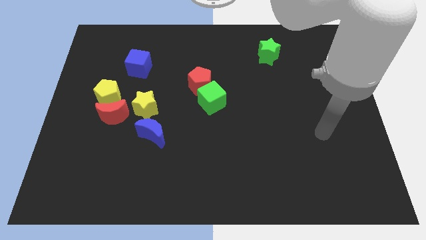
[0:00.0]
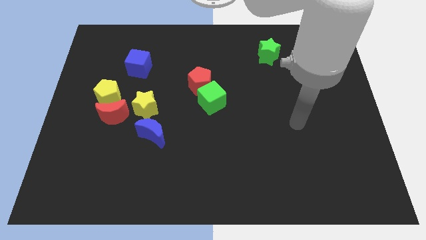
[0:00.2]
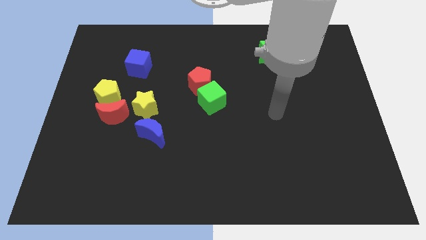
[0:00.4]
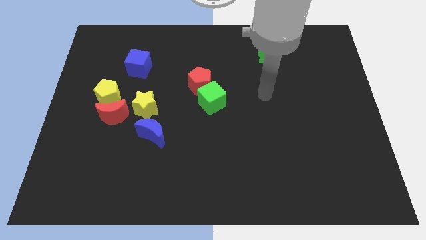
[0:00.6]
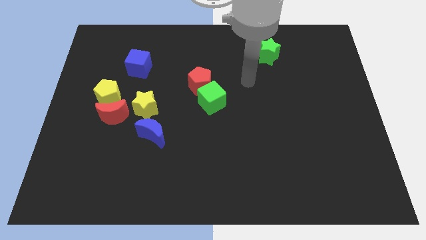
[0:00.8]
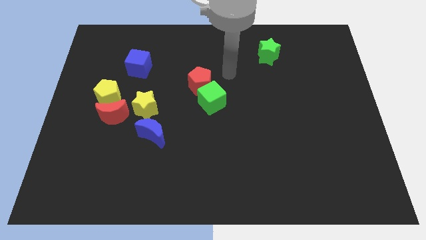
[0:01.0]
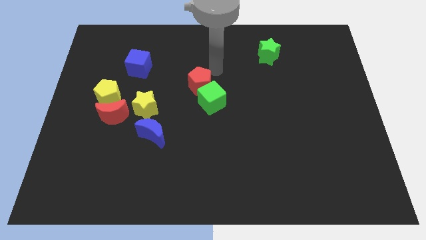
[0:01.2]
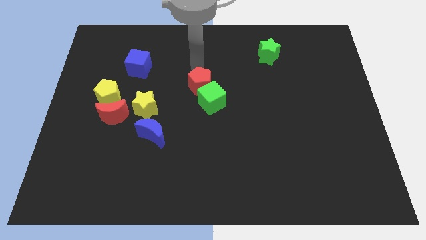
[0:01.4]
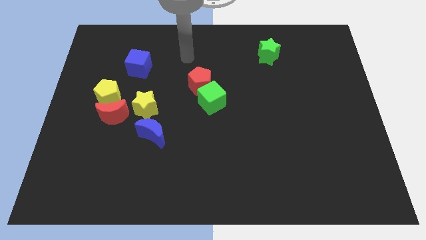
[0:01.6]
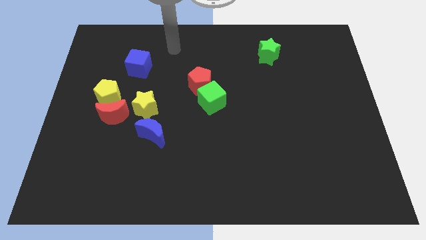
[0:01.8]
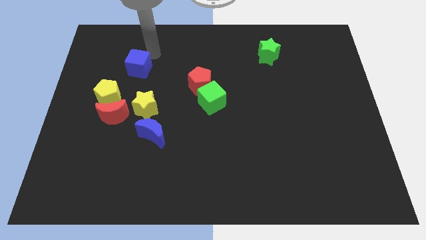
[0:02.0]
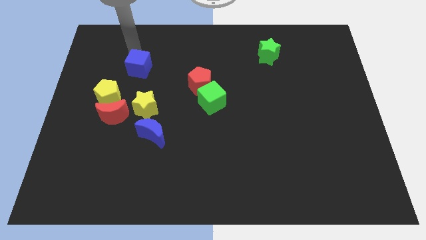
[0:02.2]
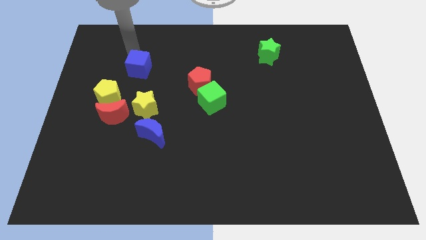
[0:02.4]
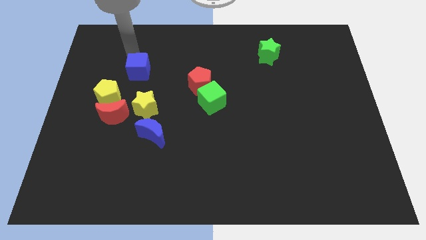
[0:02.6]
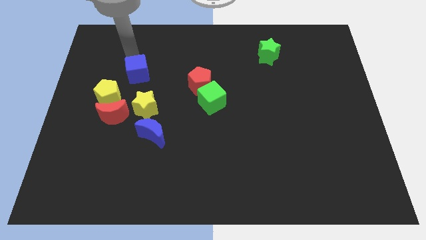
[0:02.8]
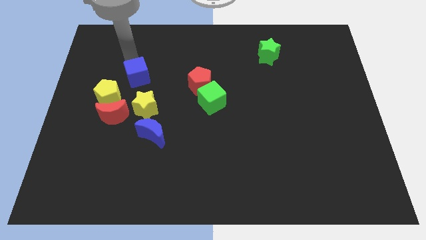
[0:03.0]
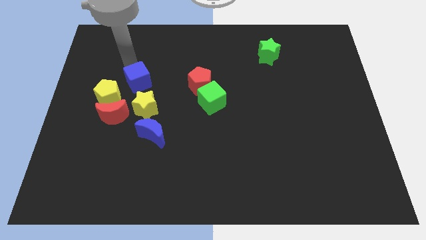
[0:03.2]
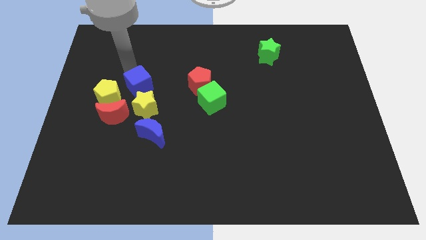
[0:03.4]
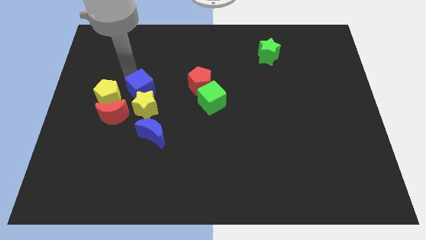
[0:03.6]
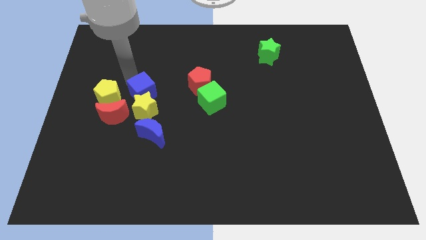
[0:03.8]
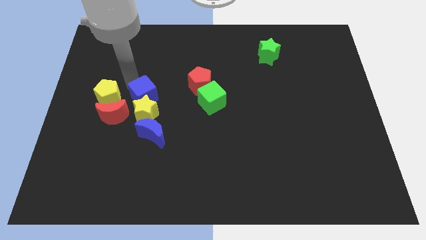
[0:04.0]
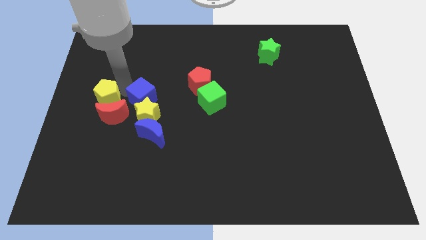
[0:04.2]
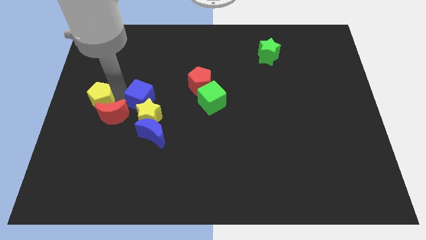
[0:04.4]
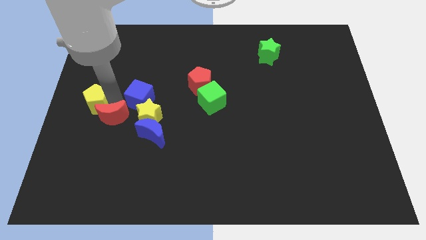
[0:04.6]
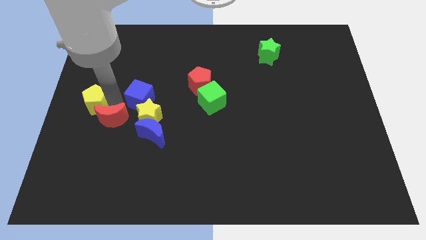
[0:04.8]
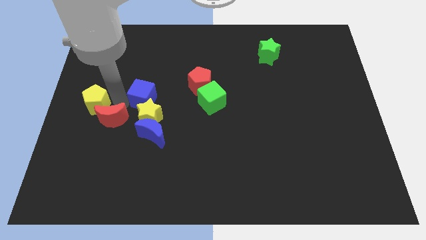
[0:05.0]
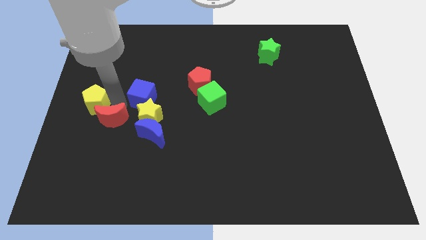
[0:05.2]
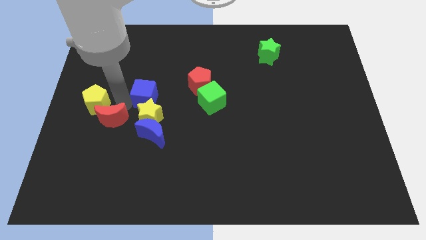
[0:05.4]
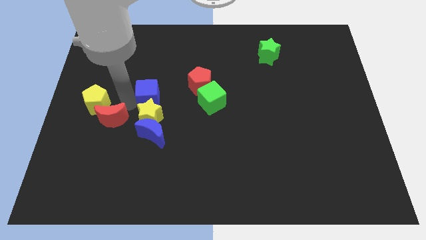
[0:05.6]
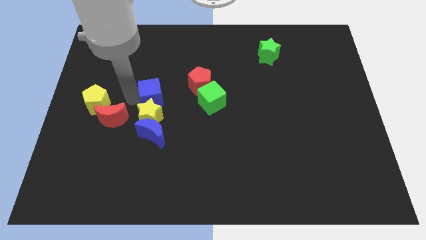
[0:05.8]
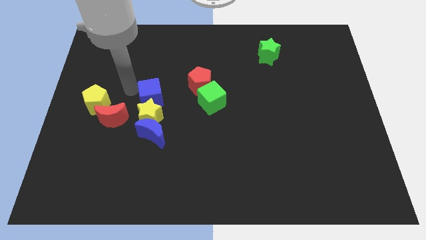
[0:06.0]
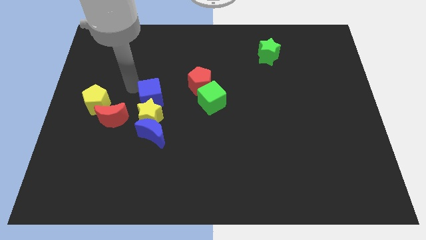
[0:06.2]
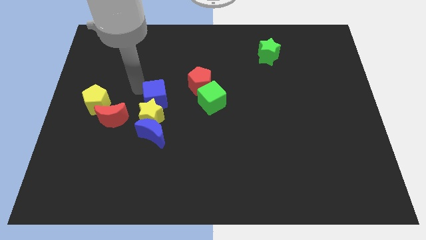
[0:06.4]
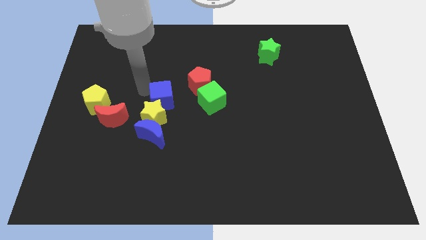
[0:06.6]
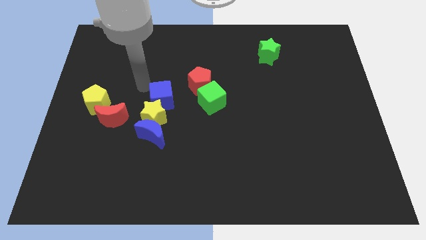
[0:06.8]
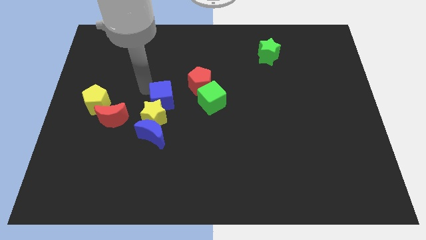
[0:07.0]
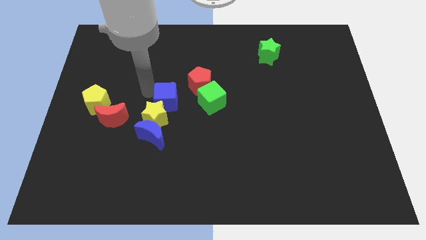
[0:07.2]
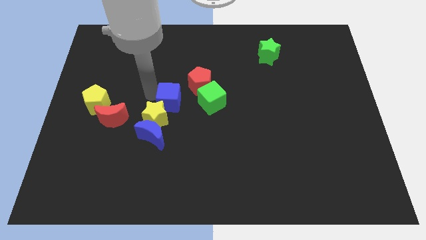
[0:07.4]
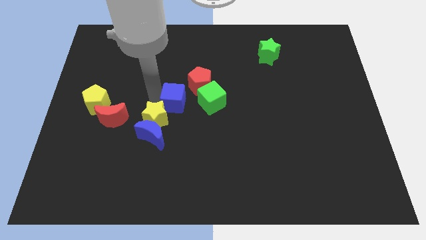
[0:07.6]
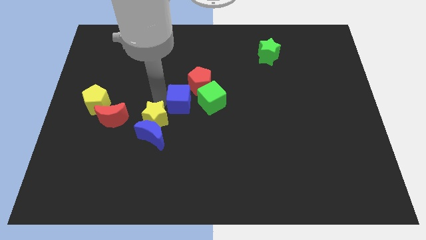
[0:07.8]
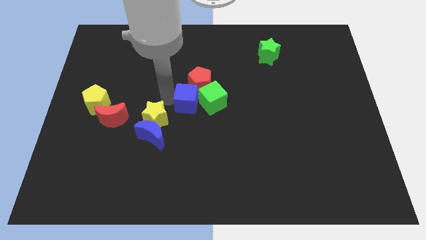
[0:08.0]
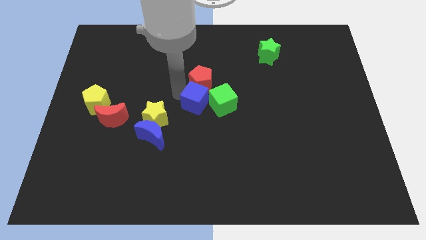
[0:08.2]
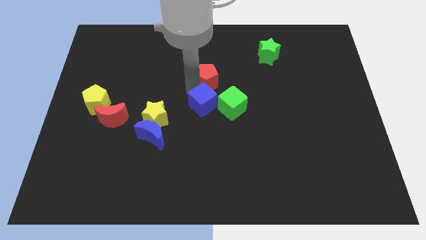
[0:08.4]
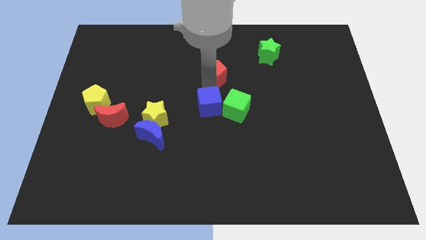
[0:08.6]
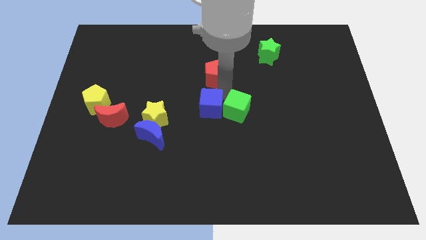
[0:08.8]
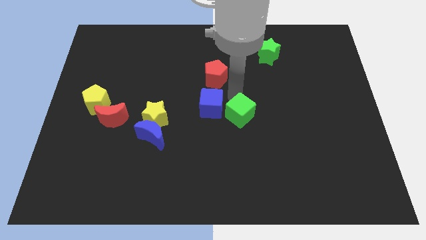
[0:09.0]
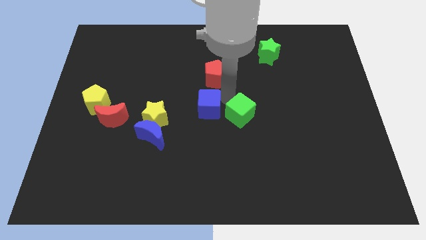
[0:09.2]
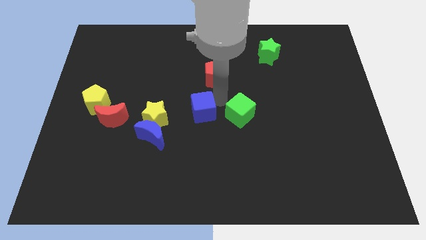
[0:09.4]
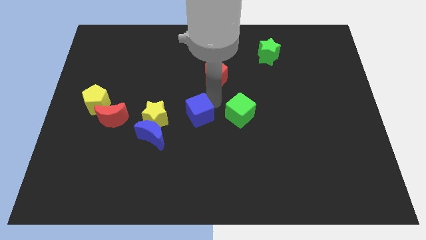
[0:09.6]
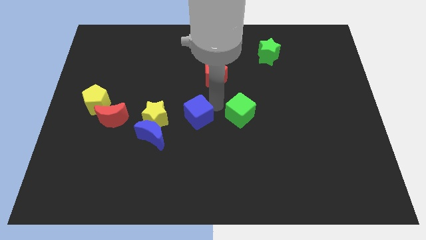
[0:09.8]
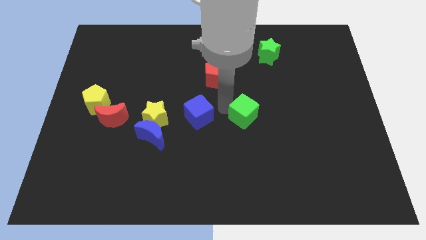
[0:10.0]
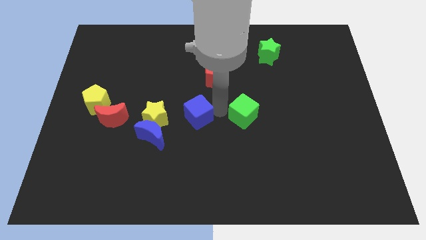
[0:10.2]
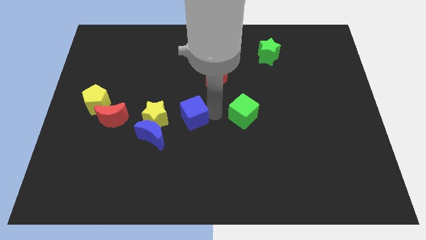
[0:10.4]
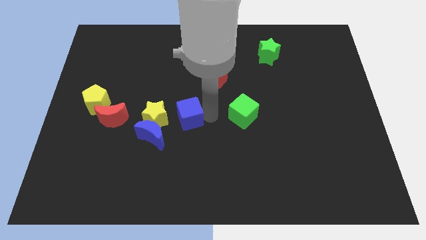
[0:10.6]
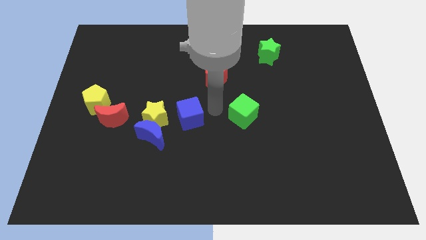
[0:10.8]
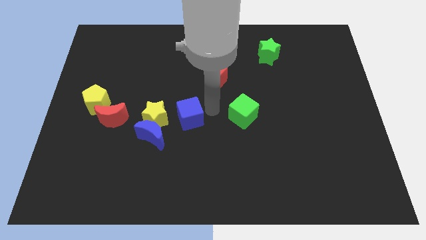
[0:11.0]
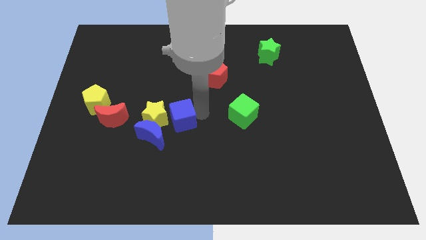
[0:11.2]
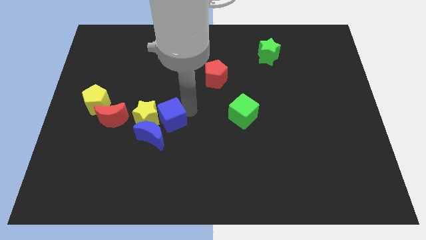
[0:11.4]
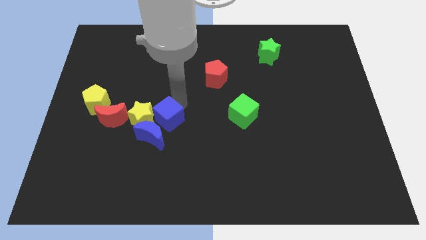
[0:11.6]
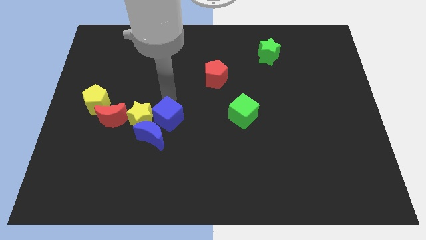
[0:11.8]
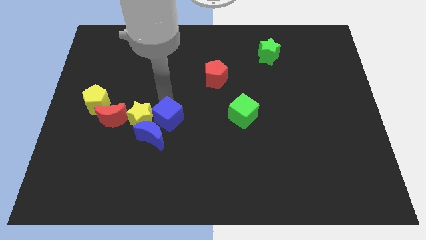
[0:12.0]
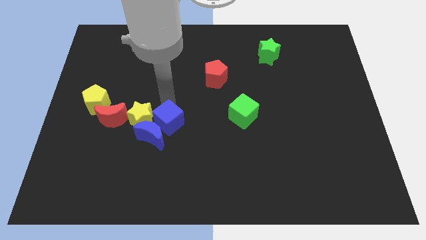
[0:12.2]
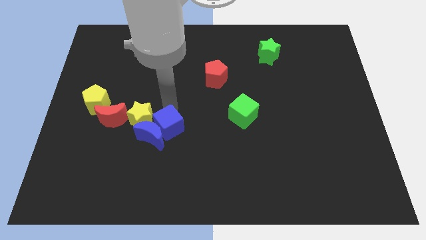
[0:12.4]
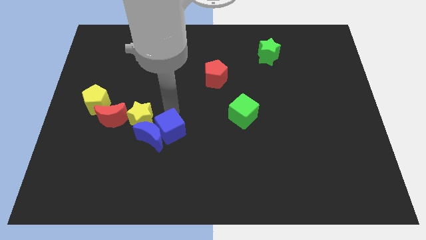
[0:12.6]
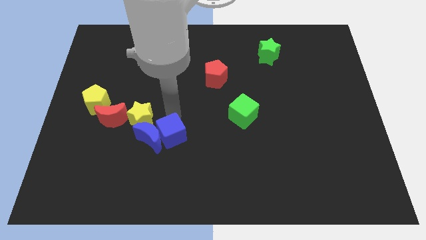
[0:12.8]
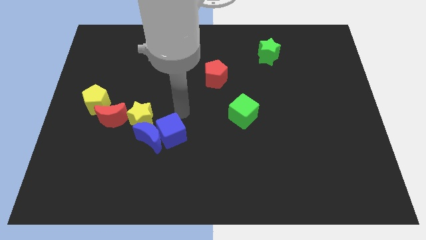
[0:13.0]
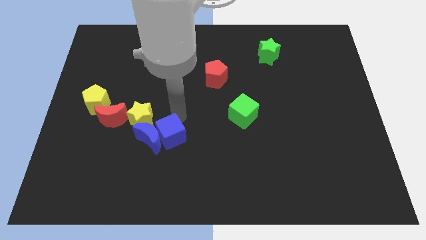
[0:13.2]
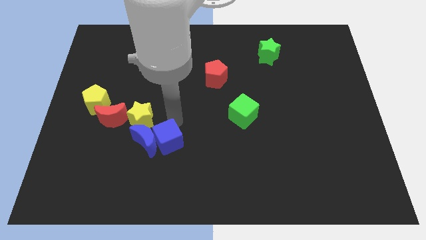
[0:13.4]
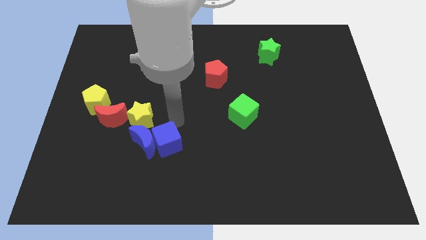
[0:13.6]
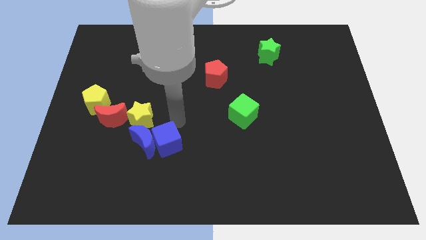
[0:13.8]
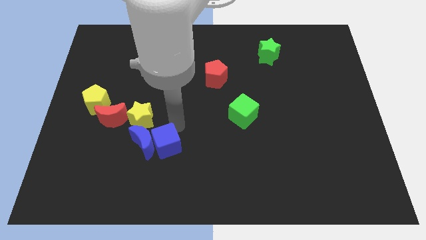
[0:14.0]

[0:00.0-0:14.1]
push the blue cube down

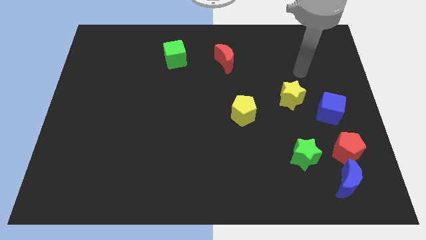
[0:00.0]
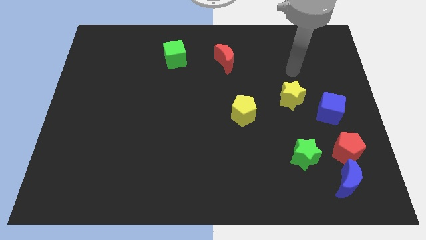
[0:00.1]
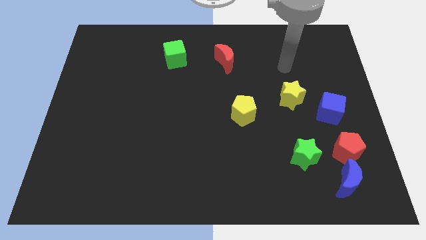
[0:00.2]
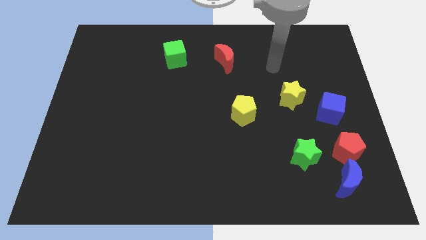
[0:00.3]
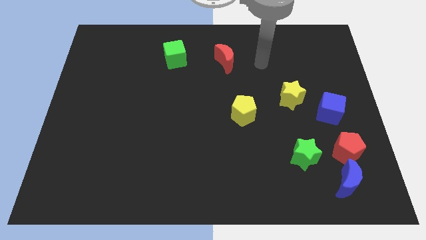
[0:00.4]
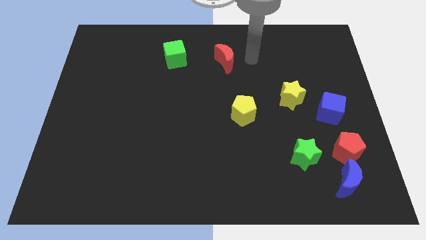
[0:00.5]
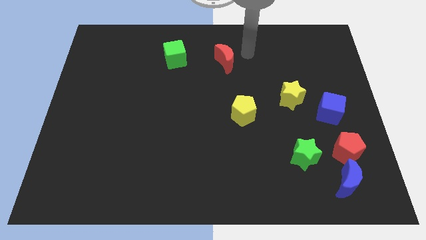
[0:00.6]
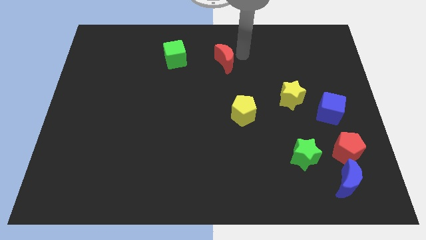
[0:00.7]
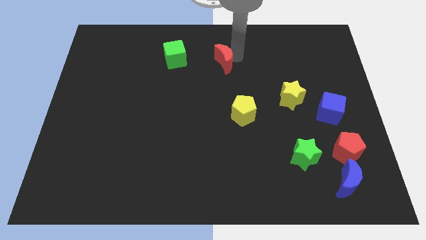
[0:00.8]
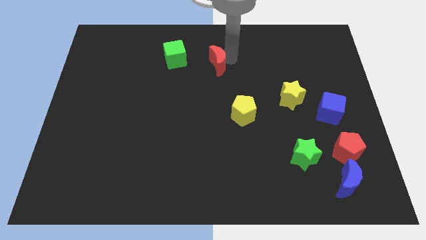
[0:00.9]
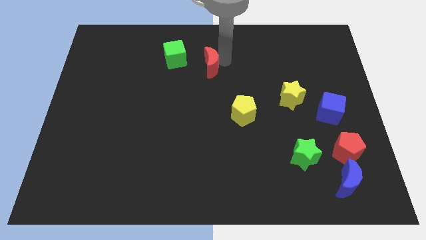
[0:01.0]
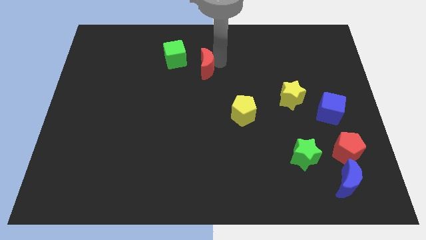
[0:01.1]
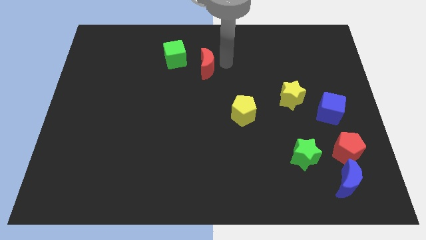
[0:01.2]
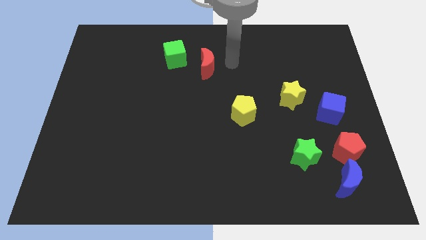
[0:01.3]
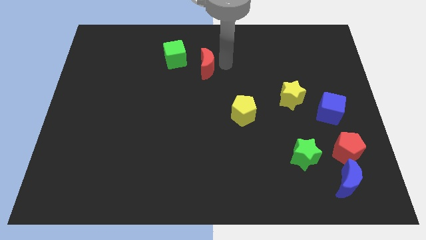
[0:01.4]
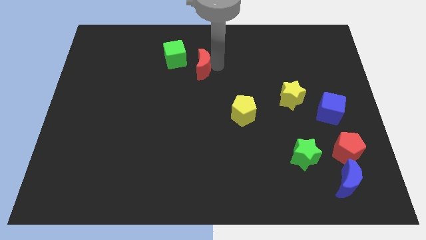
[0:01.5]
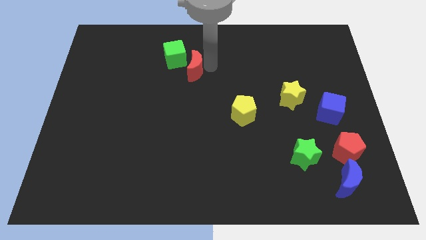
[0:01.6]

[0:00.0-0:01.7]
move the red moon left a little bit
